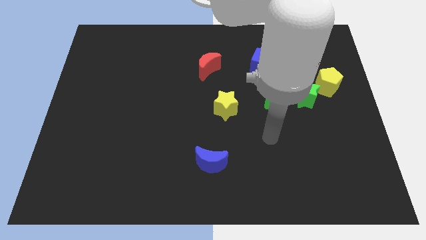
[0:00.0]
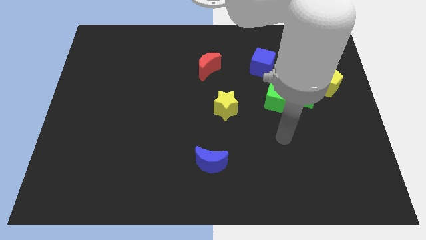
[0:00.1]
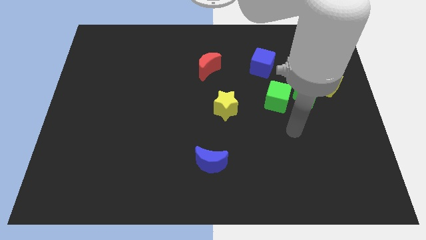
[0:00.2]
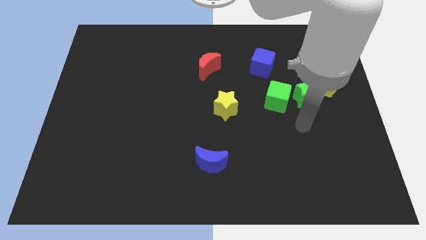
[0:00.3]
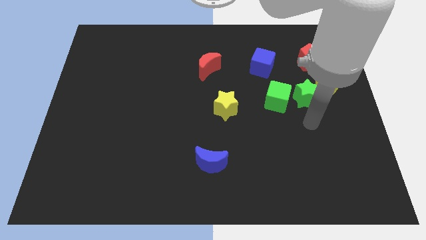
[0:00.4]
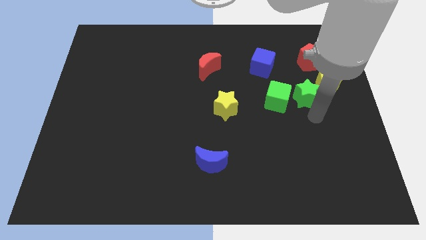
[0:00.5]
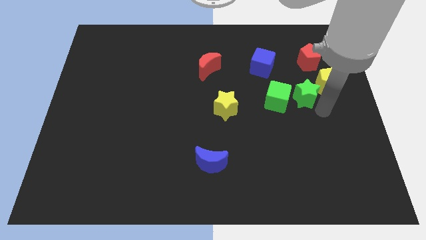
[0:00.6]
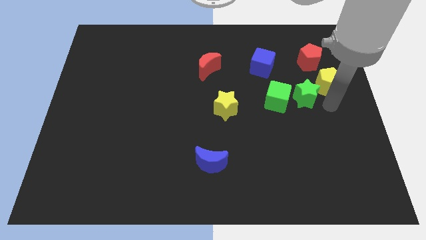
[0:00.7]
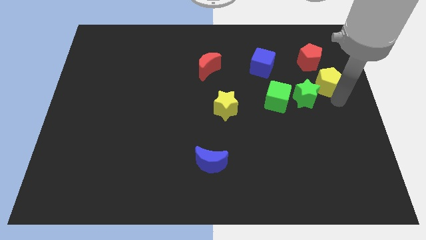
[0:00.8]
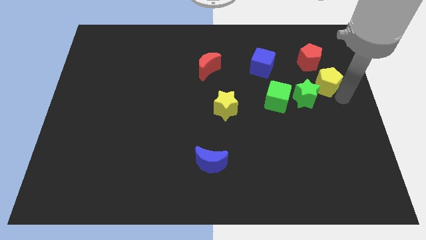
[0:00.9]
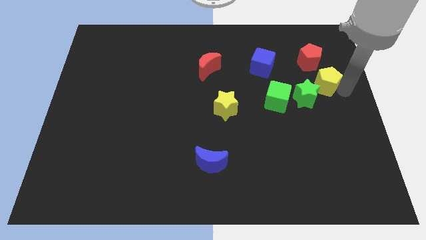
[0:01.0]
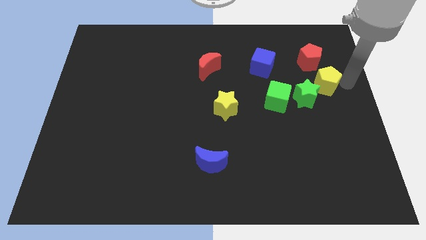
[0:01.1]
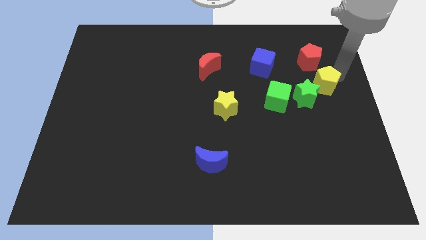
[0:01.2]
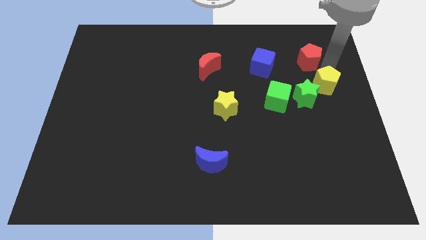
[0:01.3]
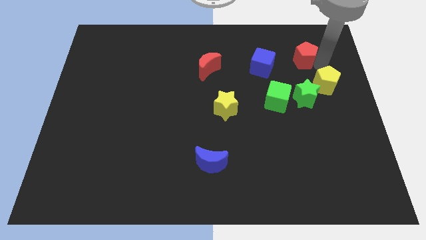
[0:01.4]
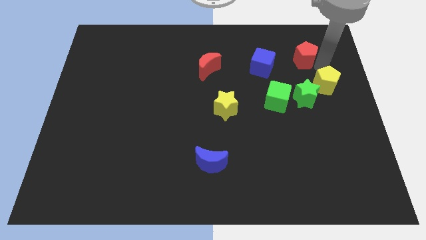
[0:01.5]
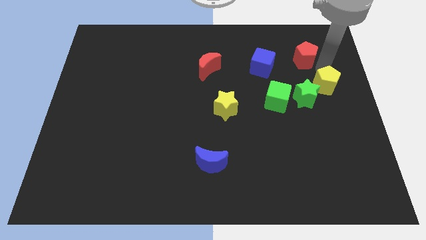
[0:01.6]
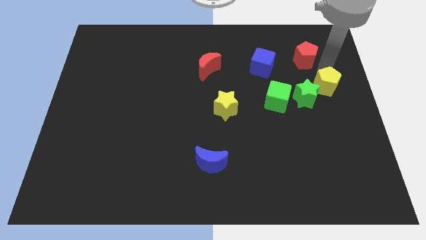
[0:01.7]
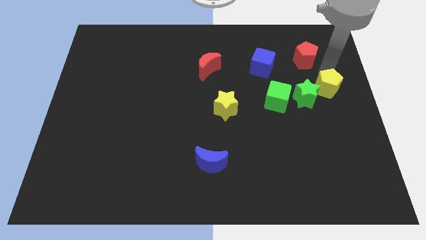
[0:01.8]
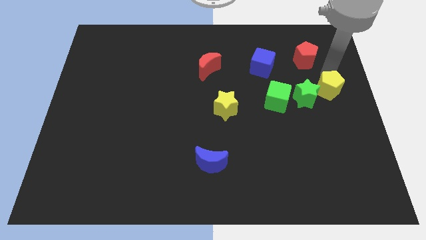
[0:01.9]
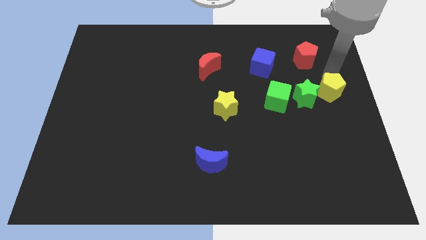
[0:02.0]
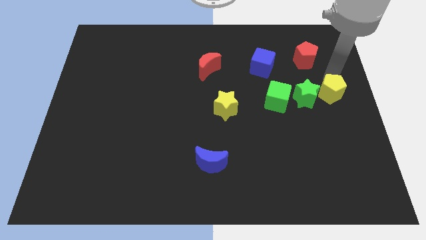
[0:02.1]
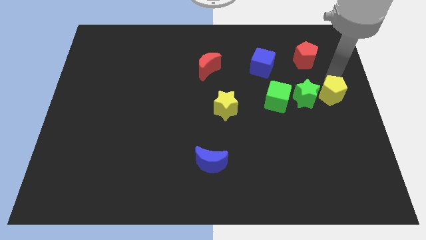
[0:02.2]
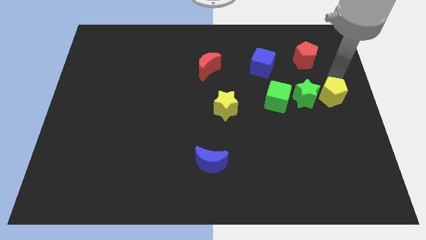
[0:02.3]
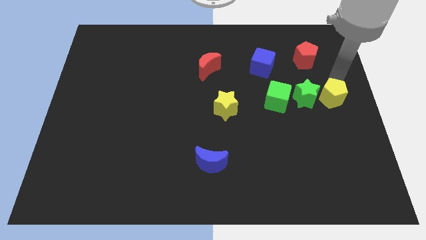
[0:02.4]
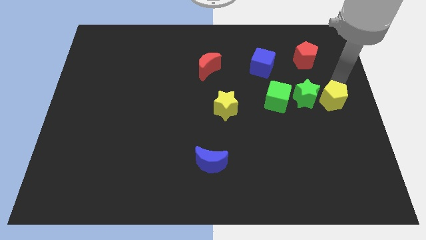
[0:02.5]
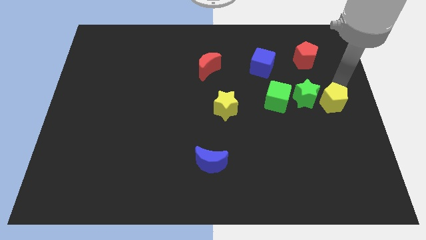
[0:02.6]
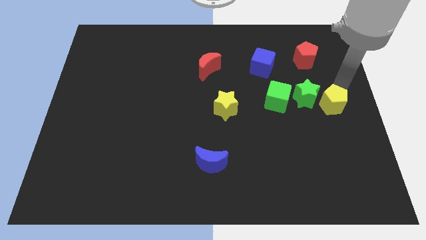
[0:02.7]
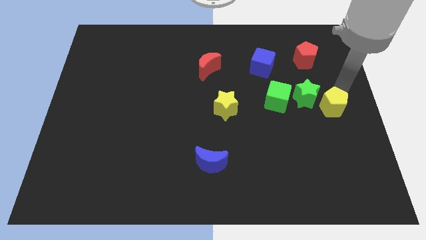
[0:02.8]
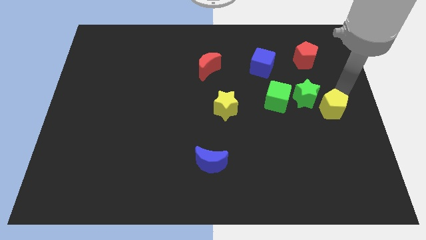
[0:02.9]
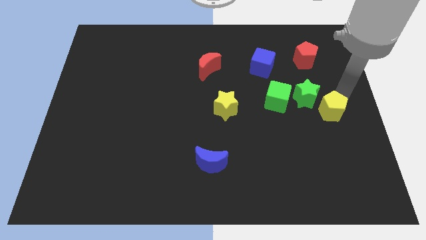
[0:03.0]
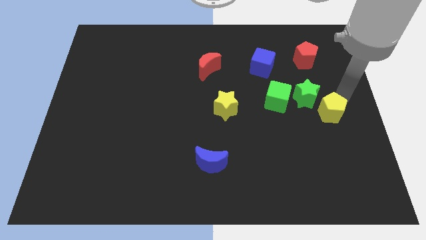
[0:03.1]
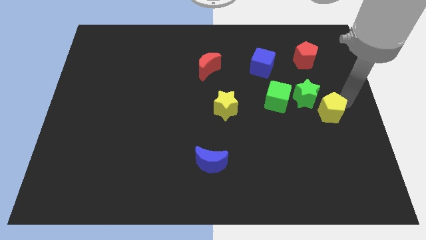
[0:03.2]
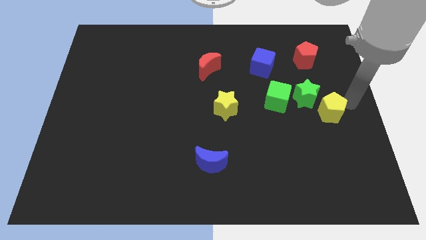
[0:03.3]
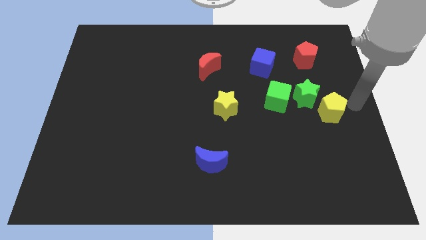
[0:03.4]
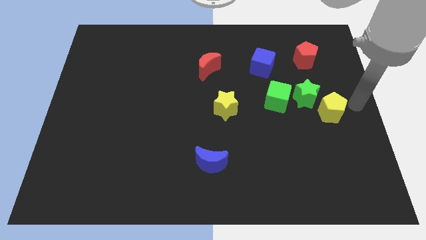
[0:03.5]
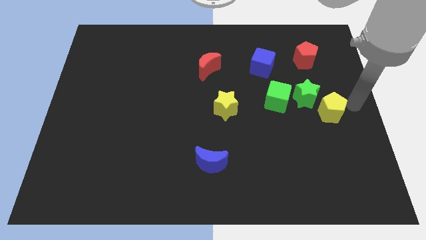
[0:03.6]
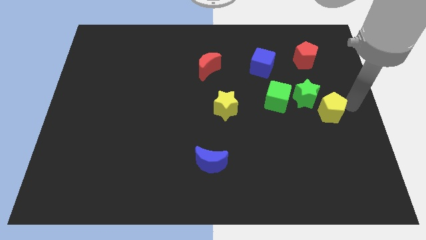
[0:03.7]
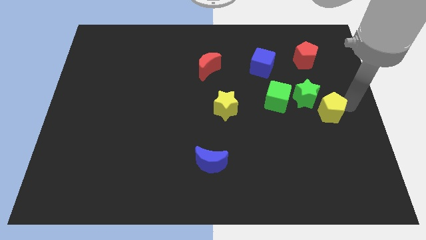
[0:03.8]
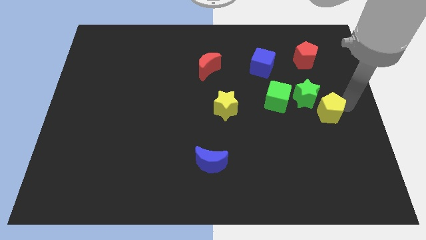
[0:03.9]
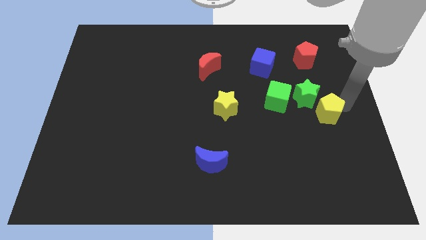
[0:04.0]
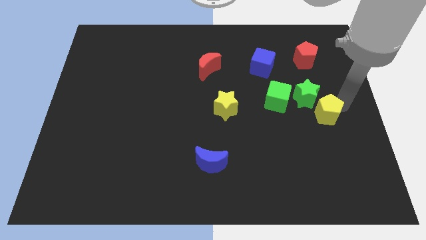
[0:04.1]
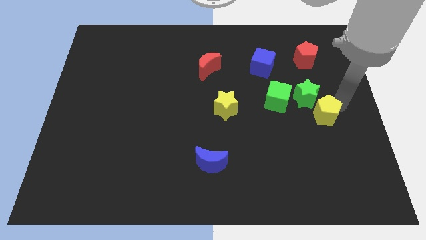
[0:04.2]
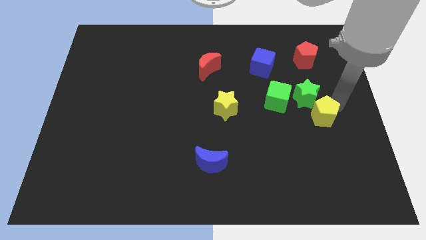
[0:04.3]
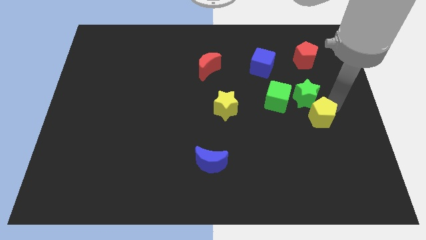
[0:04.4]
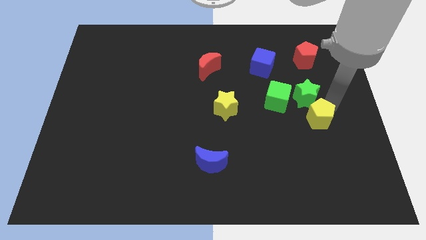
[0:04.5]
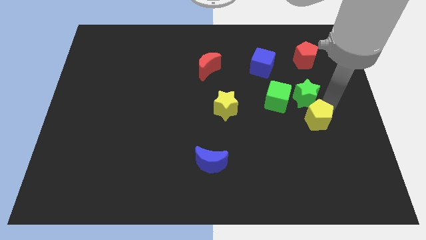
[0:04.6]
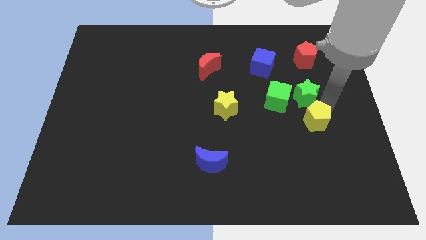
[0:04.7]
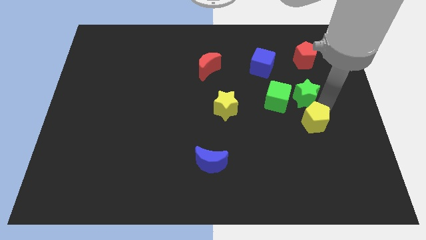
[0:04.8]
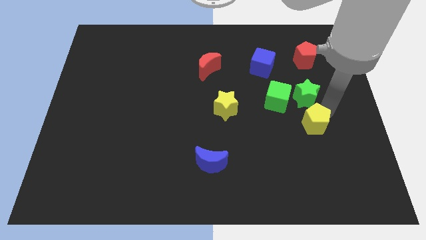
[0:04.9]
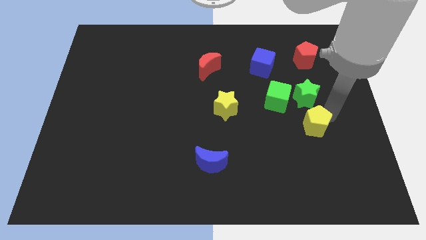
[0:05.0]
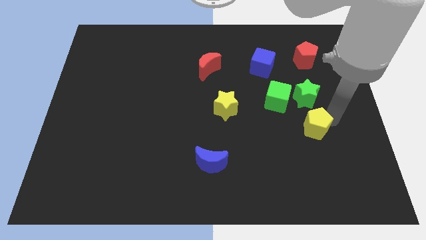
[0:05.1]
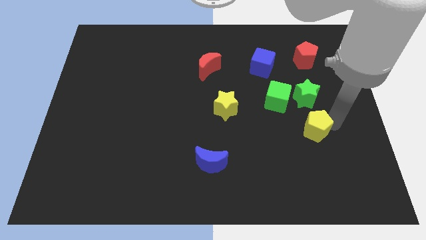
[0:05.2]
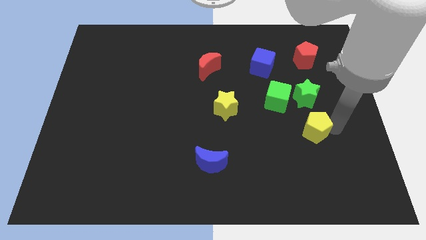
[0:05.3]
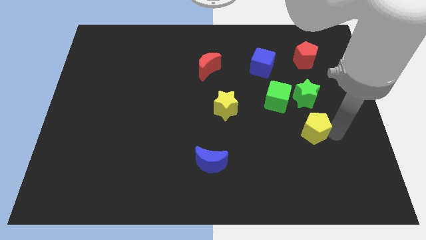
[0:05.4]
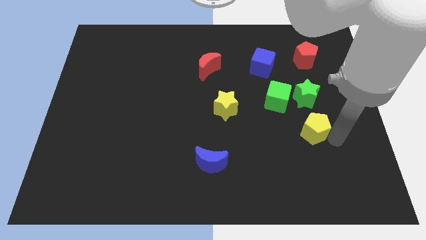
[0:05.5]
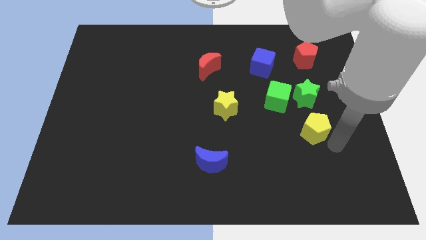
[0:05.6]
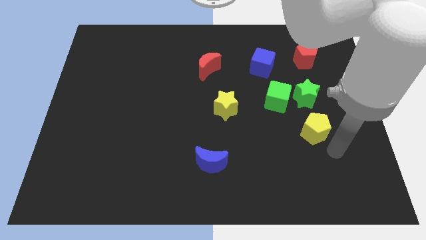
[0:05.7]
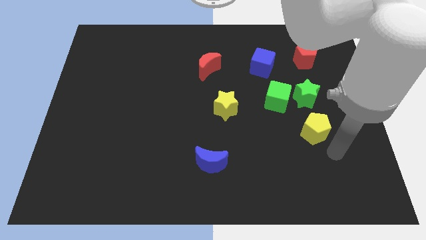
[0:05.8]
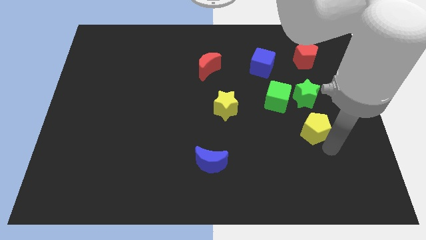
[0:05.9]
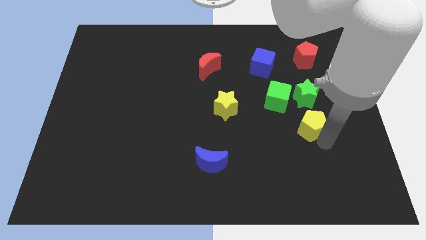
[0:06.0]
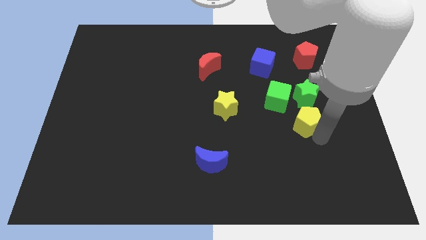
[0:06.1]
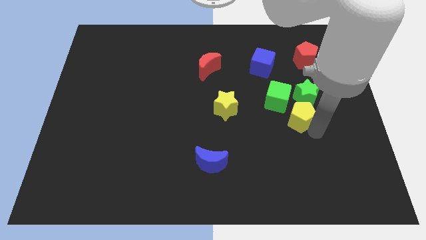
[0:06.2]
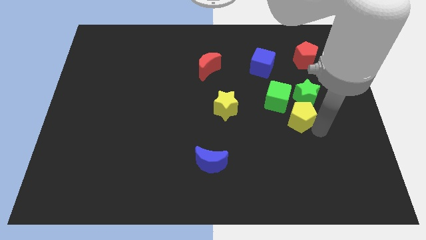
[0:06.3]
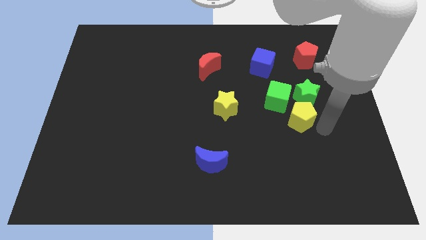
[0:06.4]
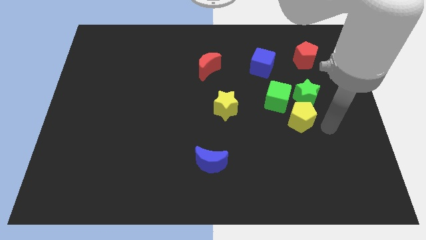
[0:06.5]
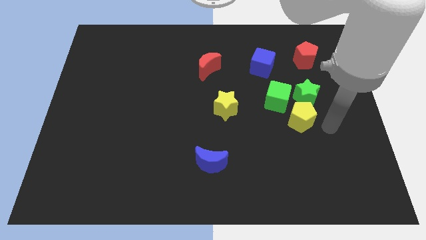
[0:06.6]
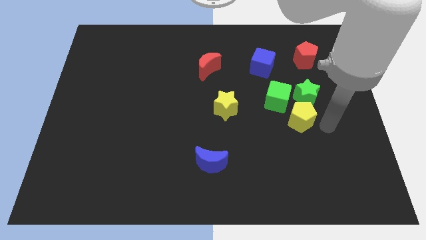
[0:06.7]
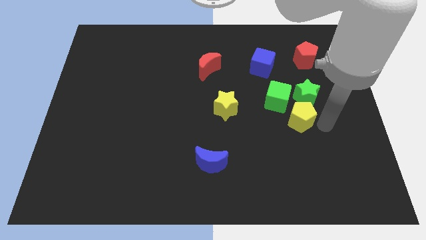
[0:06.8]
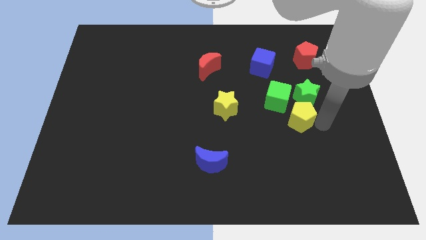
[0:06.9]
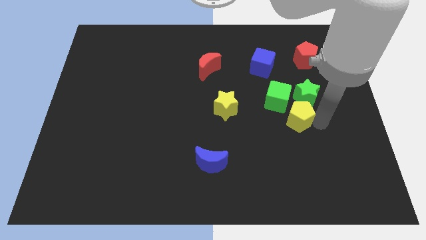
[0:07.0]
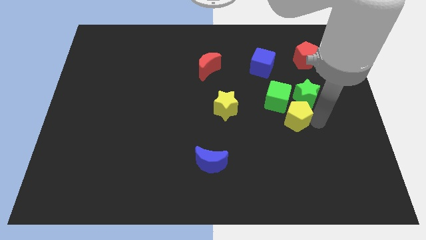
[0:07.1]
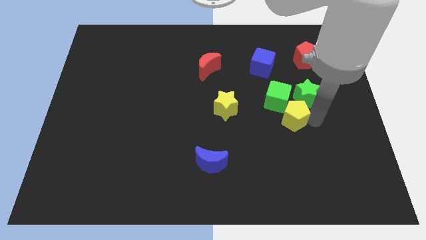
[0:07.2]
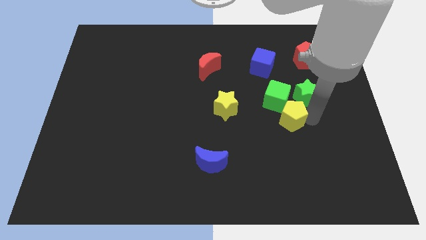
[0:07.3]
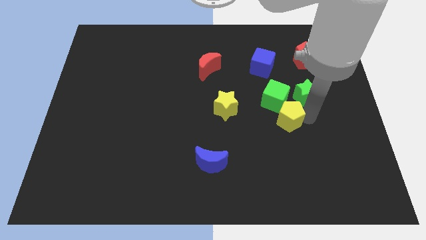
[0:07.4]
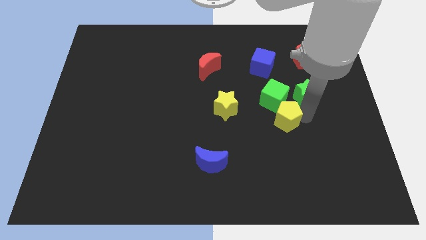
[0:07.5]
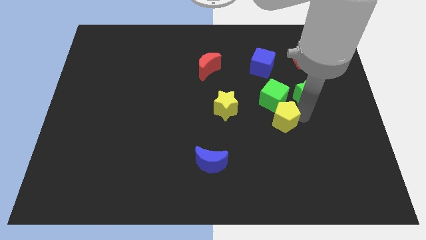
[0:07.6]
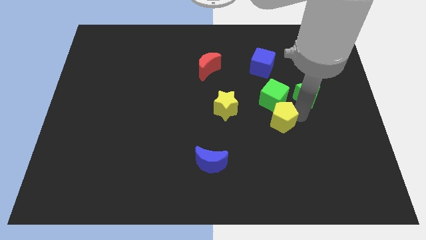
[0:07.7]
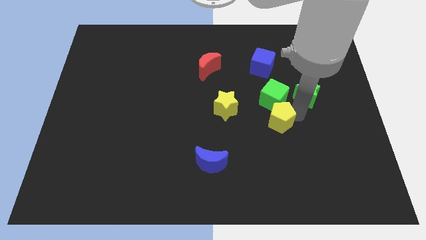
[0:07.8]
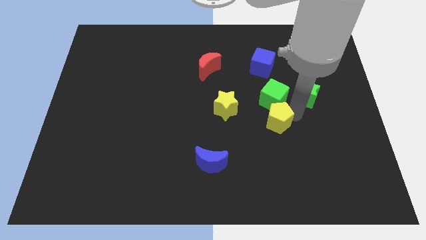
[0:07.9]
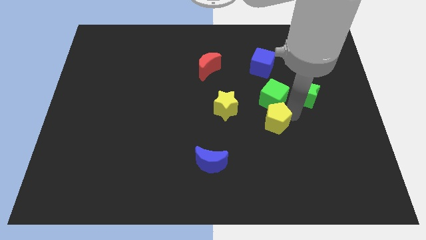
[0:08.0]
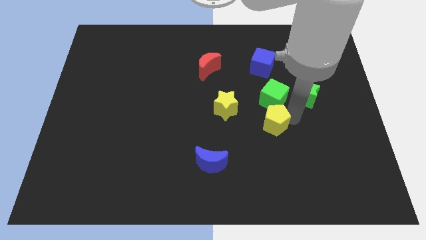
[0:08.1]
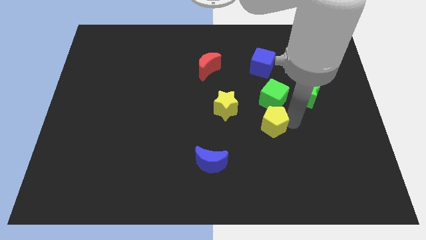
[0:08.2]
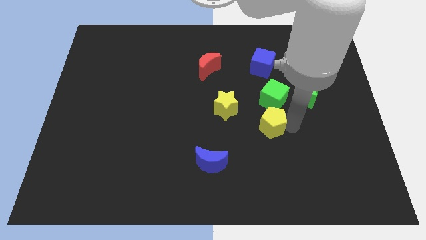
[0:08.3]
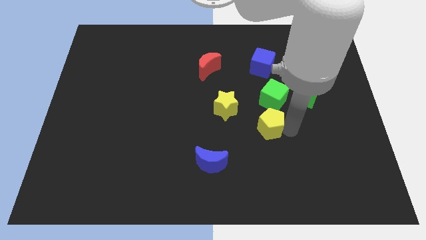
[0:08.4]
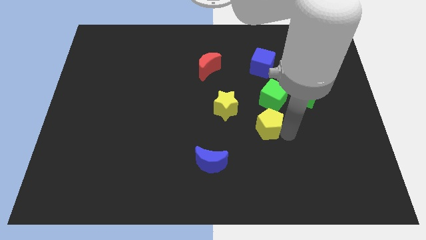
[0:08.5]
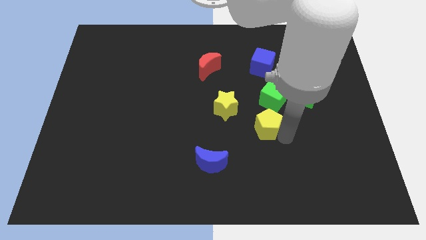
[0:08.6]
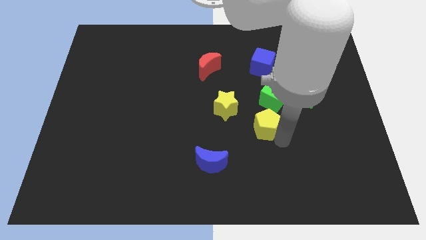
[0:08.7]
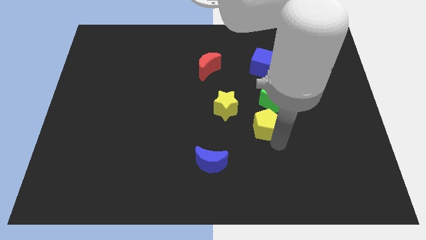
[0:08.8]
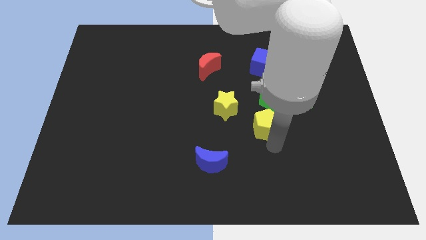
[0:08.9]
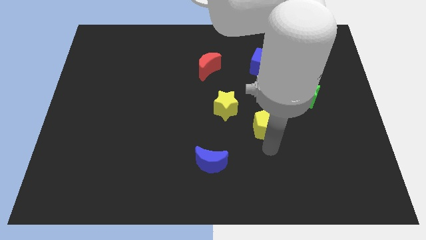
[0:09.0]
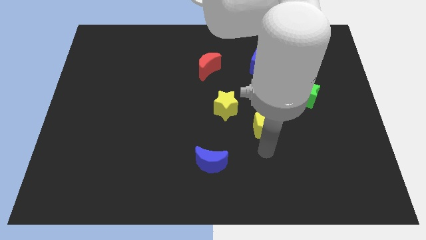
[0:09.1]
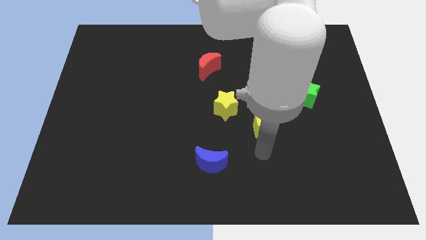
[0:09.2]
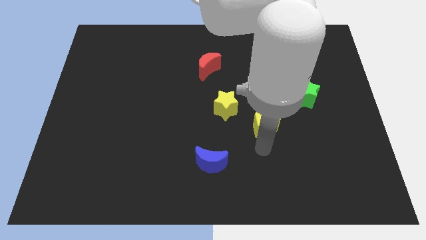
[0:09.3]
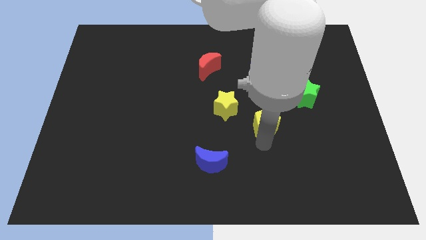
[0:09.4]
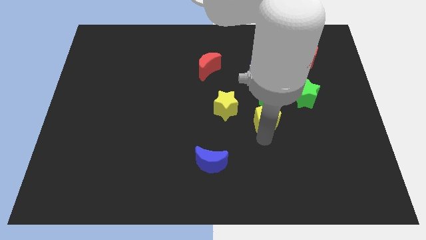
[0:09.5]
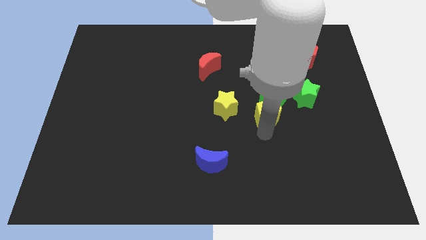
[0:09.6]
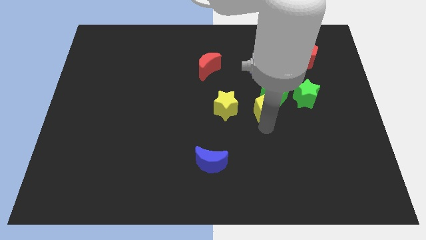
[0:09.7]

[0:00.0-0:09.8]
slide the yellow pentagon below the blue cube
